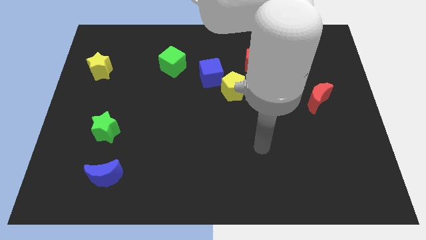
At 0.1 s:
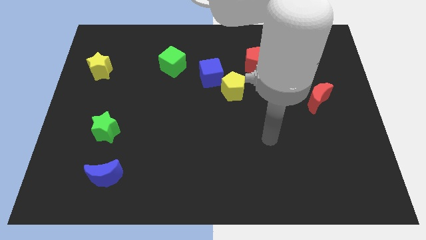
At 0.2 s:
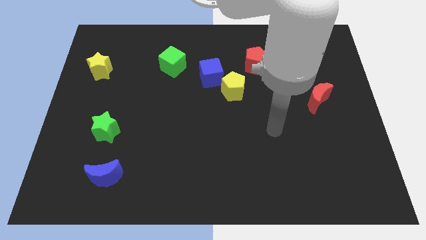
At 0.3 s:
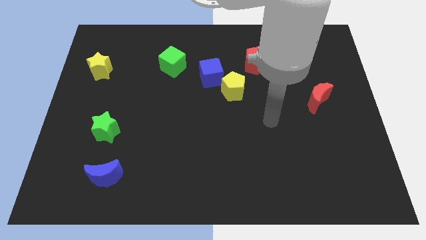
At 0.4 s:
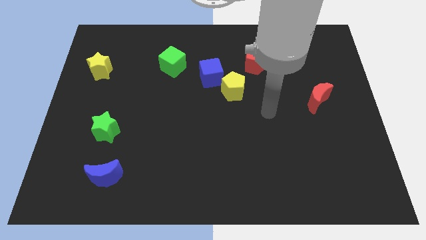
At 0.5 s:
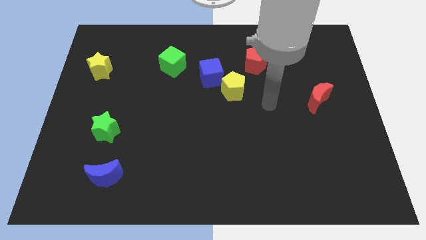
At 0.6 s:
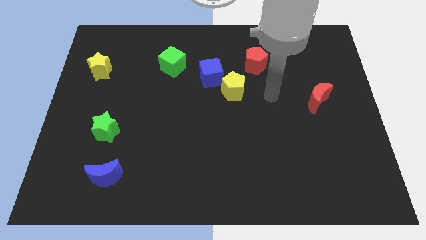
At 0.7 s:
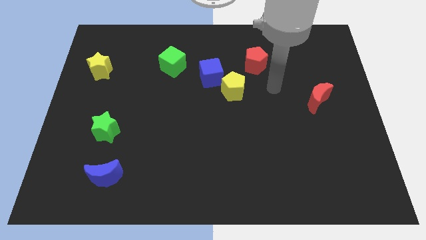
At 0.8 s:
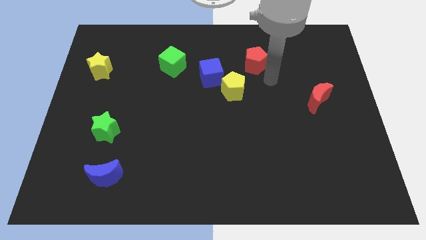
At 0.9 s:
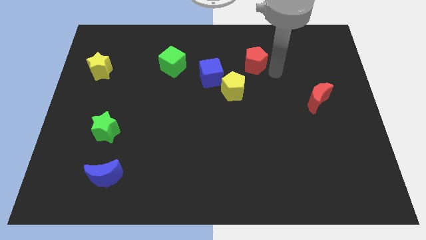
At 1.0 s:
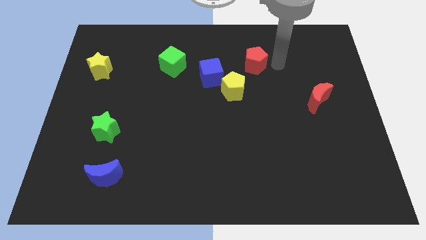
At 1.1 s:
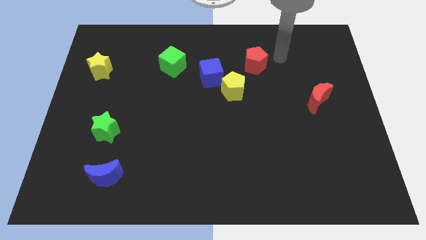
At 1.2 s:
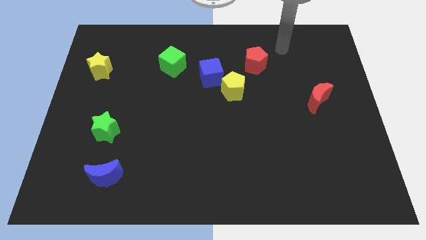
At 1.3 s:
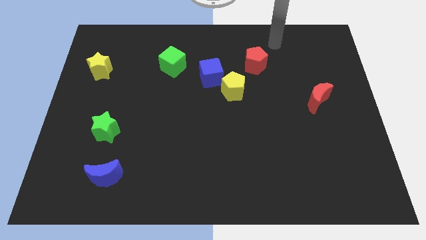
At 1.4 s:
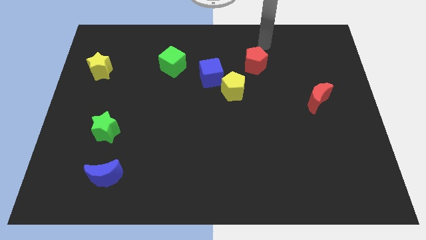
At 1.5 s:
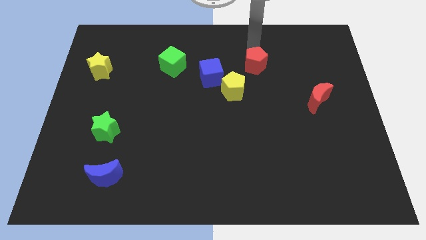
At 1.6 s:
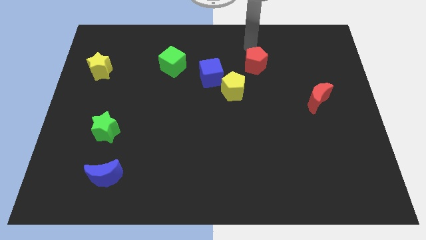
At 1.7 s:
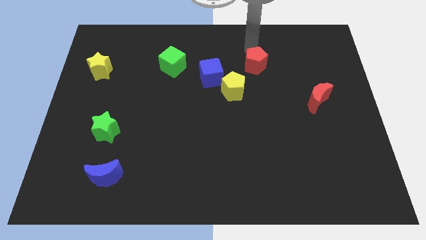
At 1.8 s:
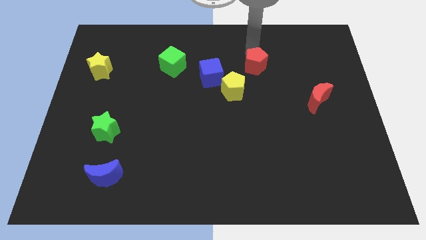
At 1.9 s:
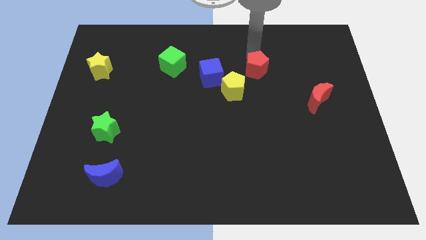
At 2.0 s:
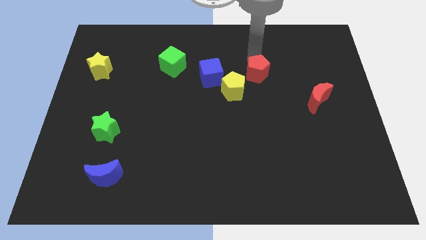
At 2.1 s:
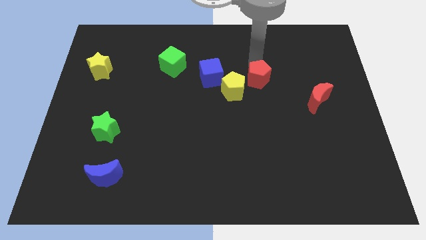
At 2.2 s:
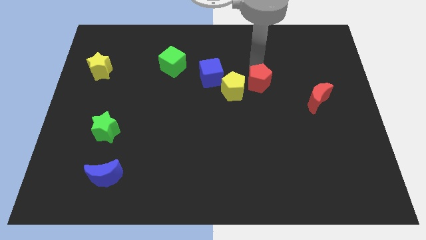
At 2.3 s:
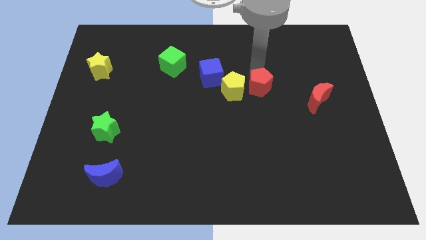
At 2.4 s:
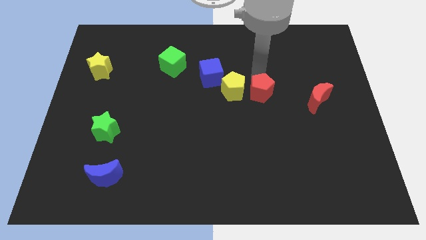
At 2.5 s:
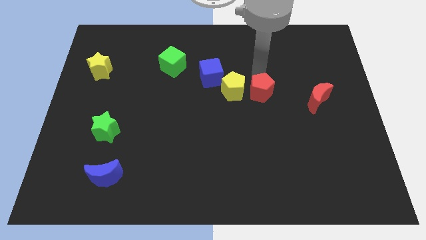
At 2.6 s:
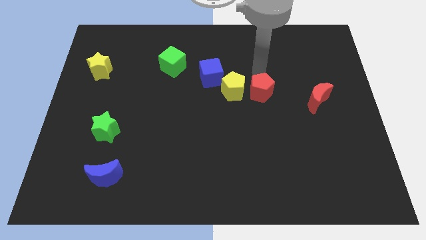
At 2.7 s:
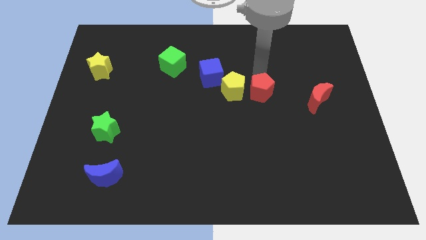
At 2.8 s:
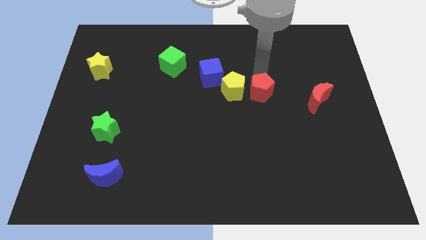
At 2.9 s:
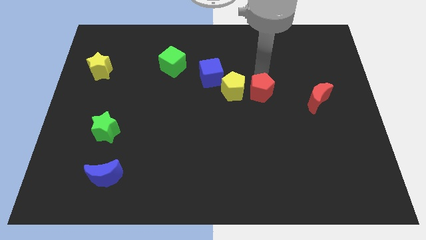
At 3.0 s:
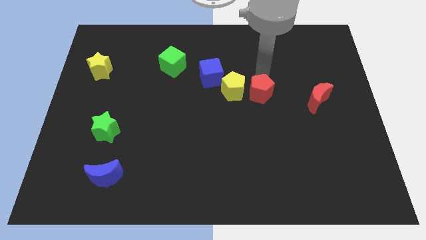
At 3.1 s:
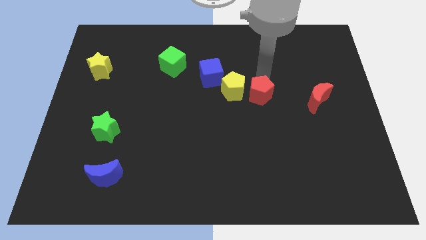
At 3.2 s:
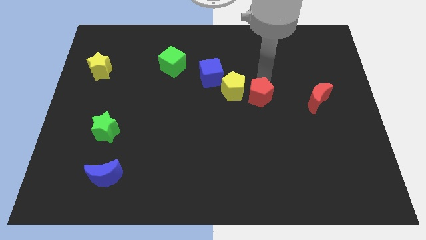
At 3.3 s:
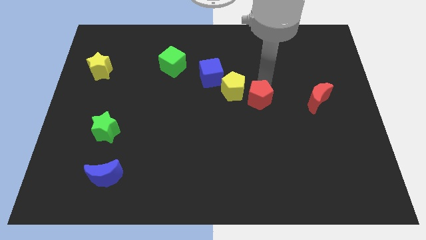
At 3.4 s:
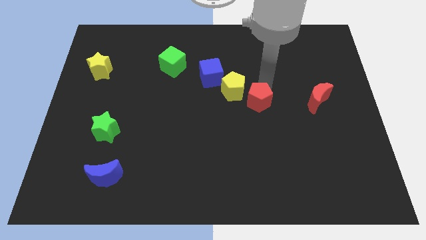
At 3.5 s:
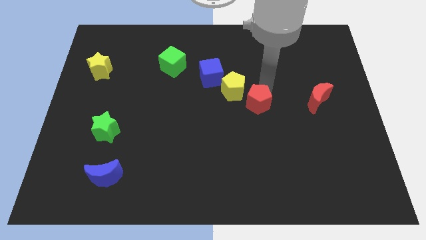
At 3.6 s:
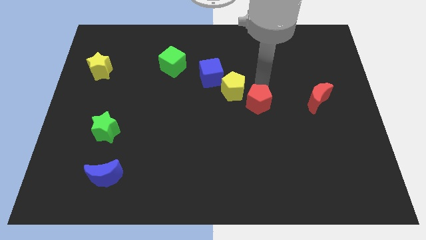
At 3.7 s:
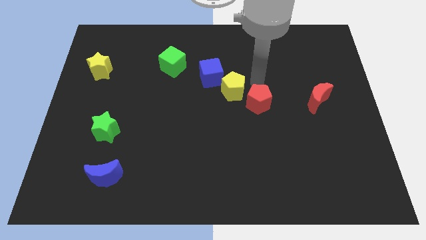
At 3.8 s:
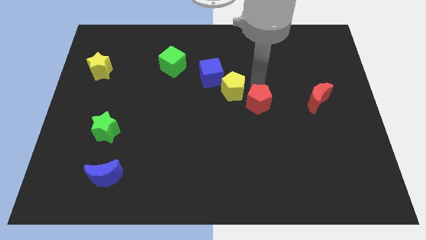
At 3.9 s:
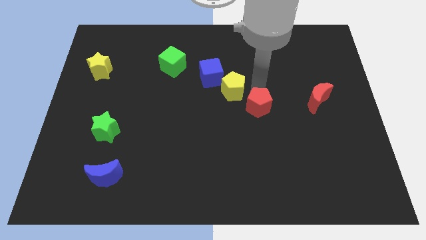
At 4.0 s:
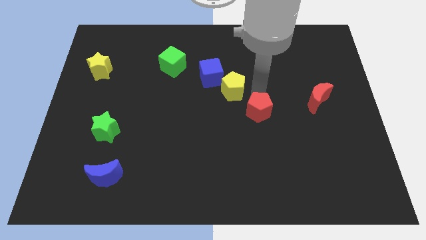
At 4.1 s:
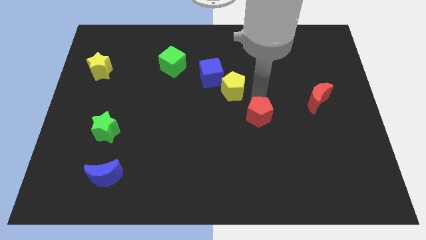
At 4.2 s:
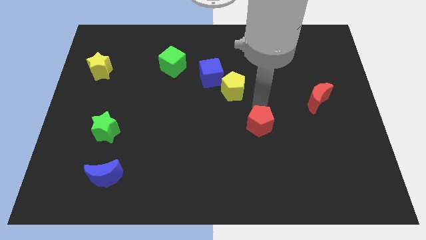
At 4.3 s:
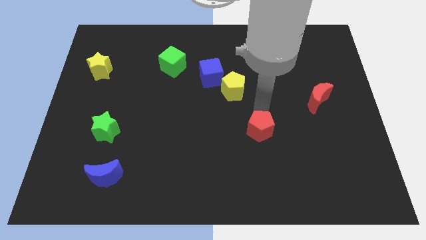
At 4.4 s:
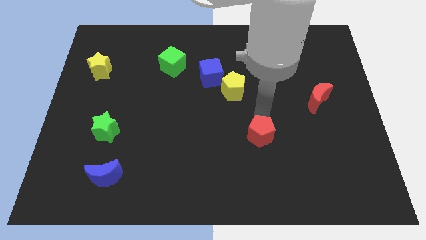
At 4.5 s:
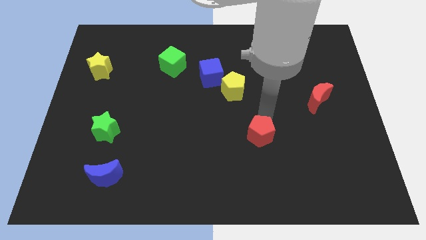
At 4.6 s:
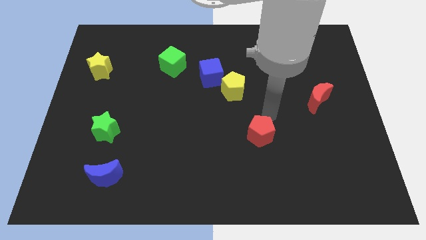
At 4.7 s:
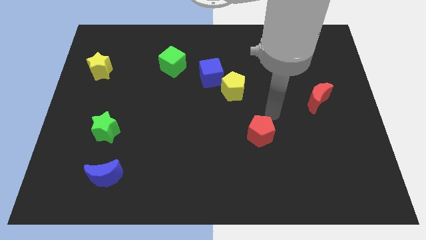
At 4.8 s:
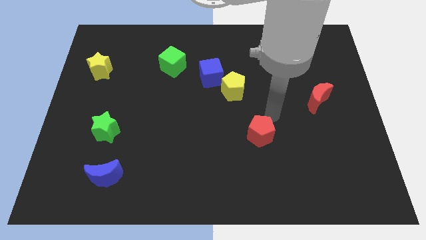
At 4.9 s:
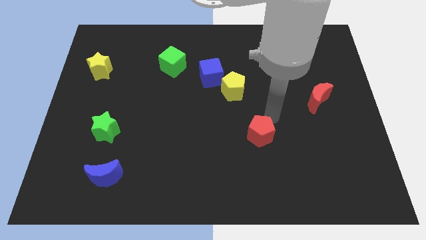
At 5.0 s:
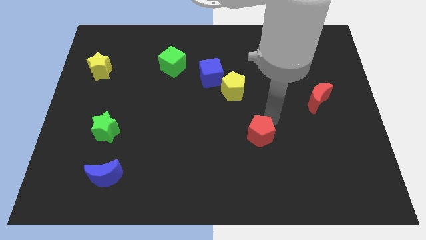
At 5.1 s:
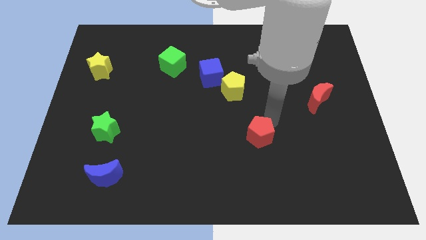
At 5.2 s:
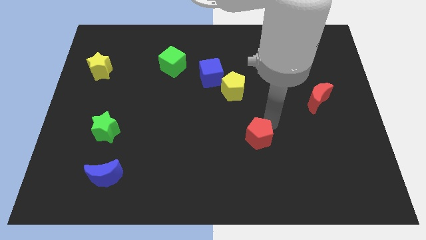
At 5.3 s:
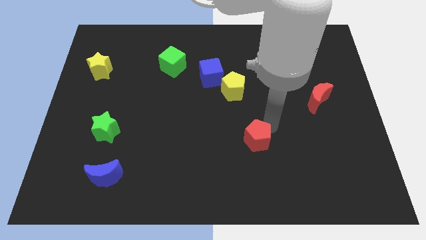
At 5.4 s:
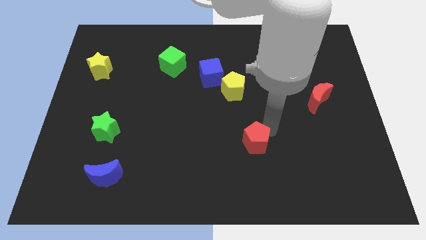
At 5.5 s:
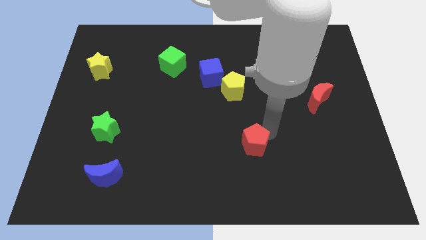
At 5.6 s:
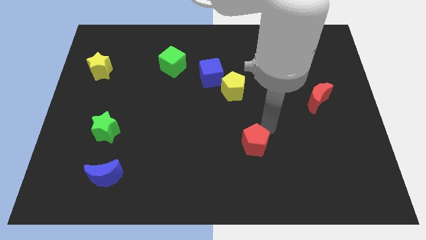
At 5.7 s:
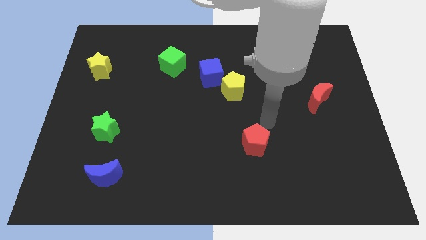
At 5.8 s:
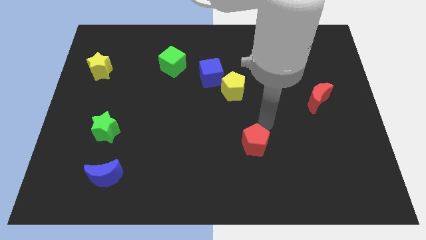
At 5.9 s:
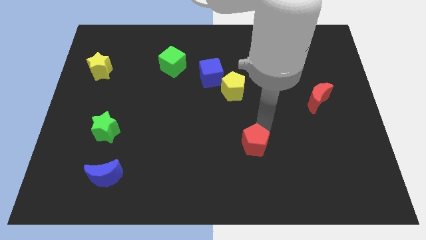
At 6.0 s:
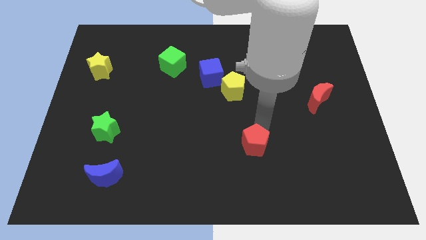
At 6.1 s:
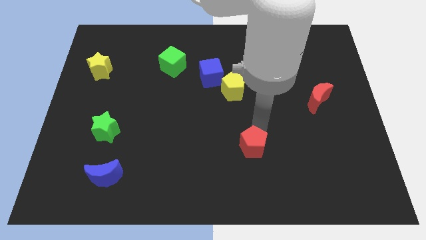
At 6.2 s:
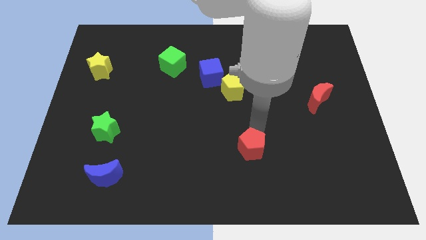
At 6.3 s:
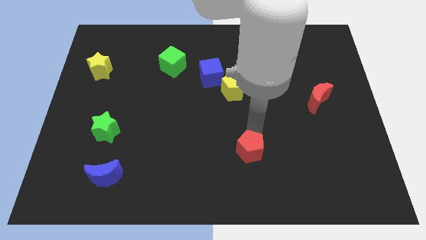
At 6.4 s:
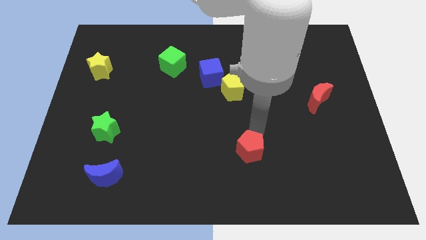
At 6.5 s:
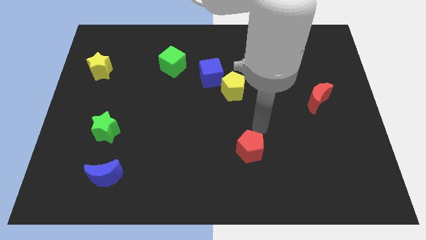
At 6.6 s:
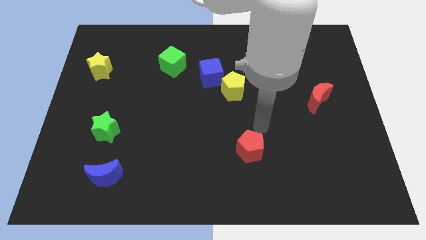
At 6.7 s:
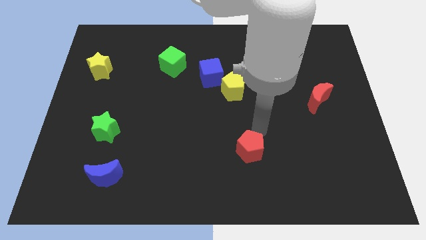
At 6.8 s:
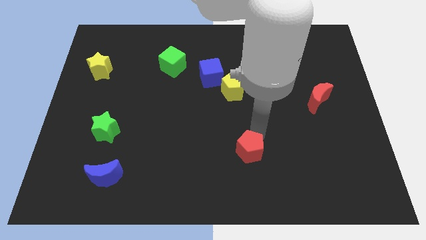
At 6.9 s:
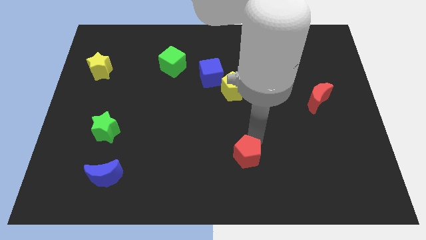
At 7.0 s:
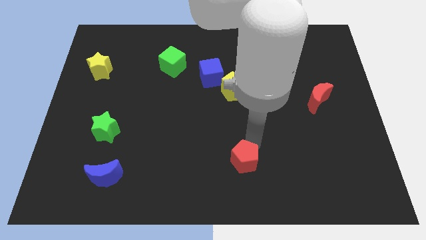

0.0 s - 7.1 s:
push the red pentagon to the bottom side

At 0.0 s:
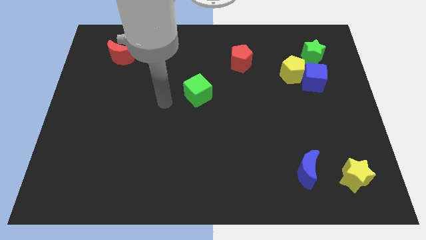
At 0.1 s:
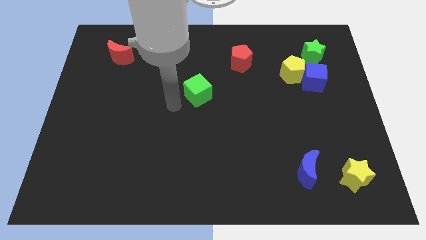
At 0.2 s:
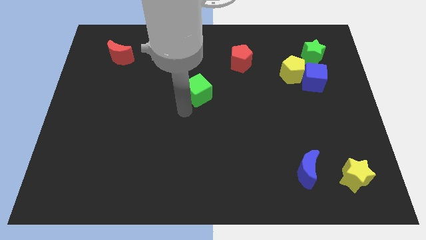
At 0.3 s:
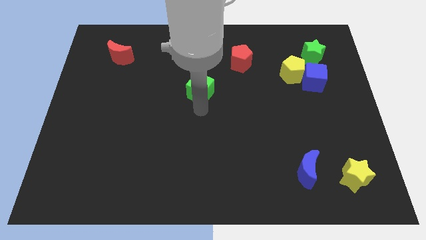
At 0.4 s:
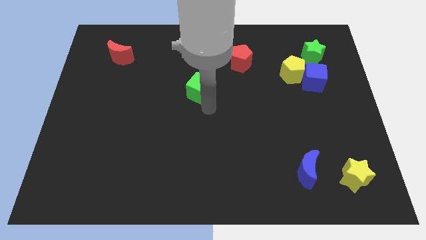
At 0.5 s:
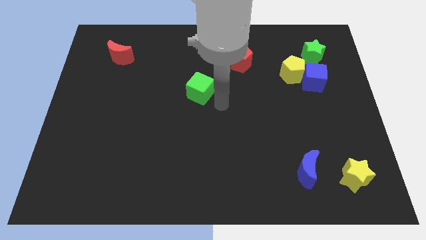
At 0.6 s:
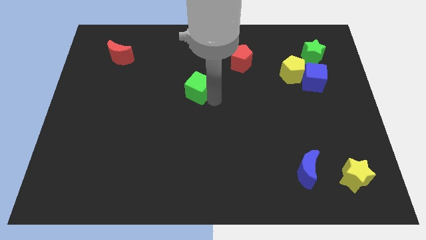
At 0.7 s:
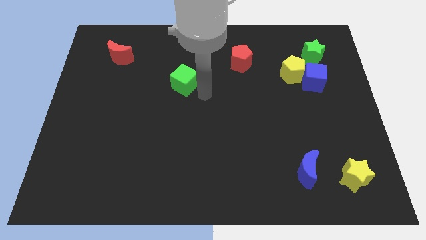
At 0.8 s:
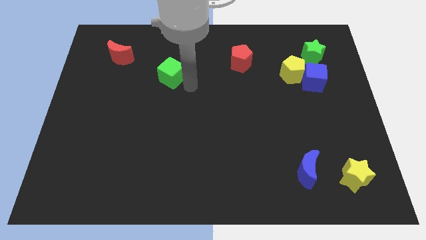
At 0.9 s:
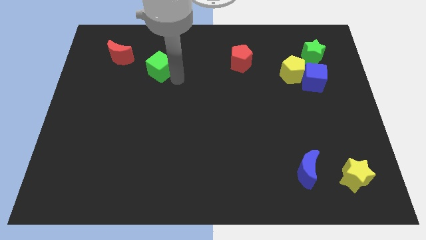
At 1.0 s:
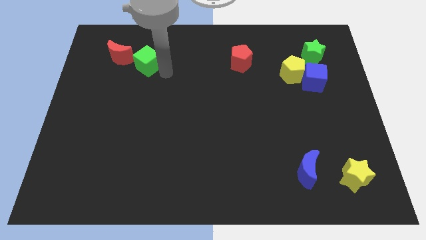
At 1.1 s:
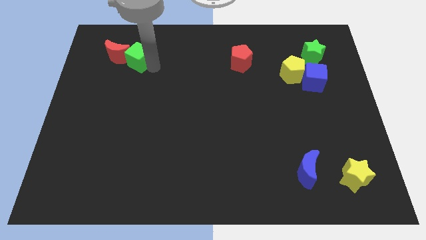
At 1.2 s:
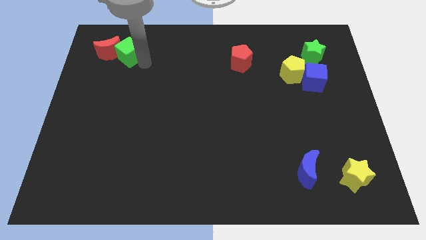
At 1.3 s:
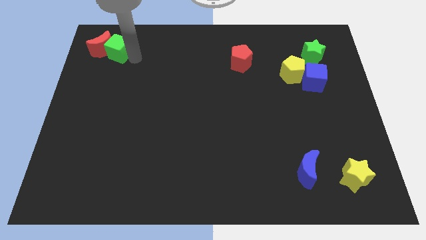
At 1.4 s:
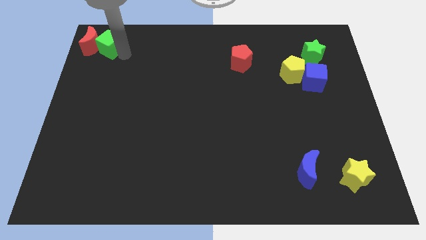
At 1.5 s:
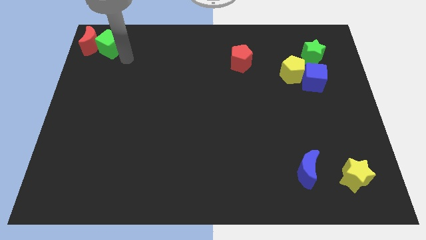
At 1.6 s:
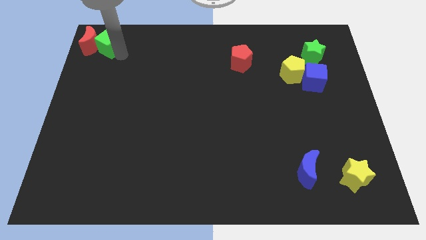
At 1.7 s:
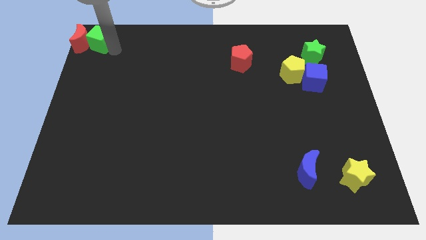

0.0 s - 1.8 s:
move the green cube to the top left of the board
